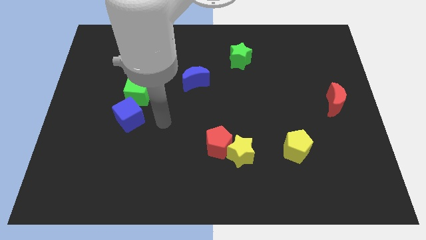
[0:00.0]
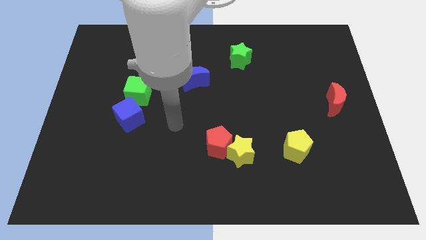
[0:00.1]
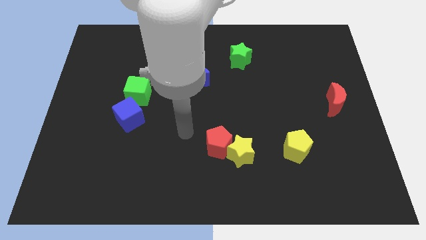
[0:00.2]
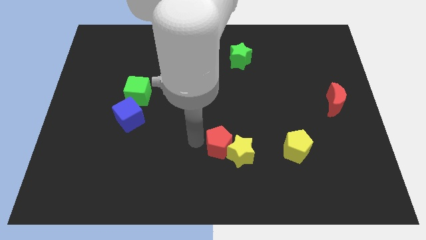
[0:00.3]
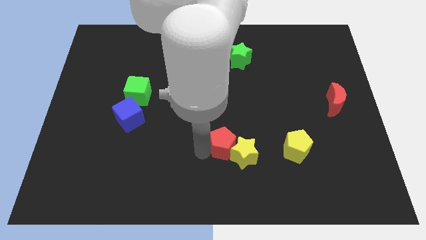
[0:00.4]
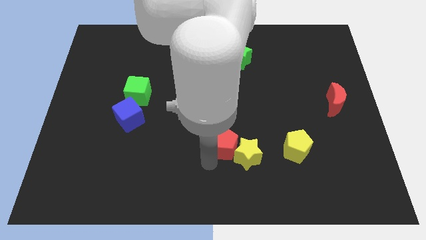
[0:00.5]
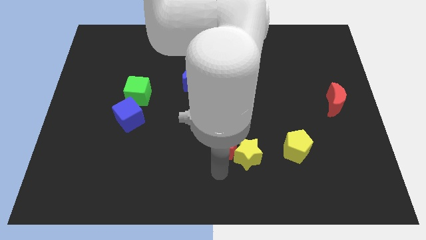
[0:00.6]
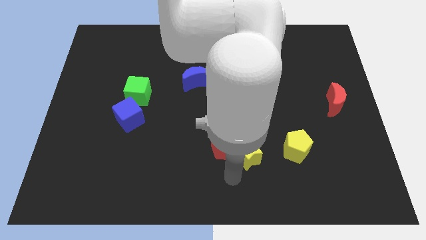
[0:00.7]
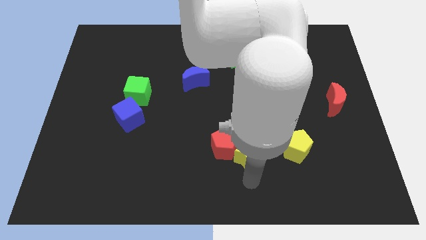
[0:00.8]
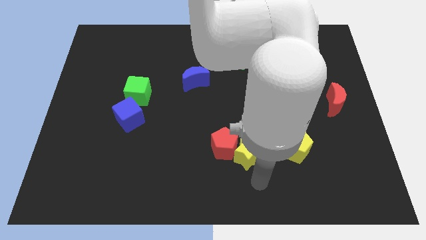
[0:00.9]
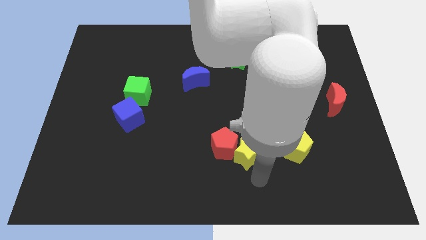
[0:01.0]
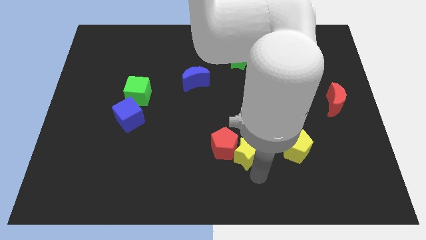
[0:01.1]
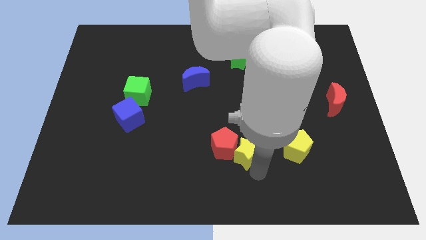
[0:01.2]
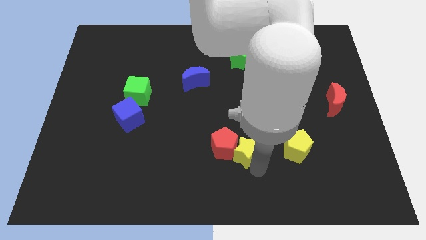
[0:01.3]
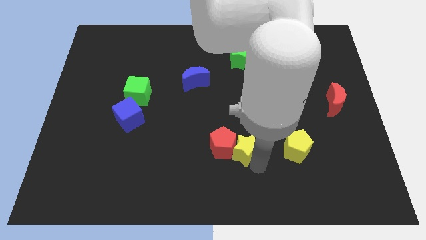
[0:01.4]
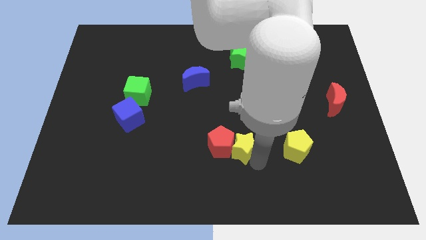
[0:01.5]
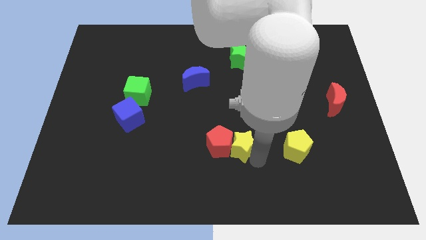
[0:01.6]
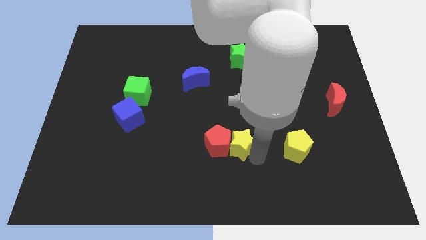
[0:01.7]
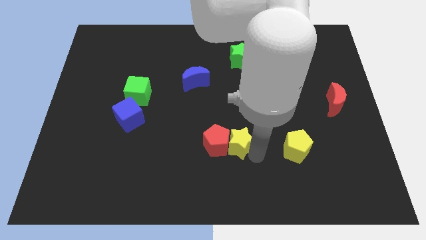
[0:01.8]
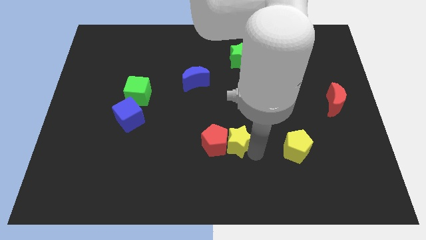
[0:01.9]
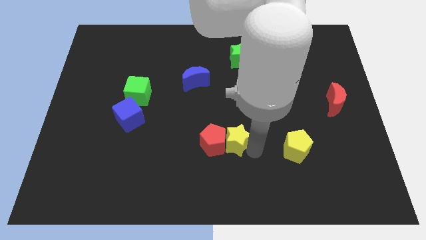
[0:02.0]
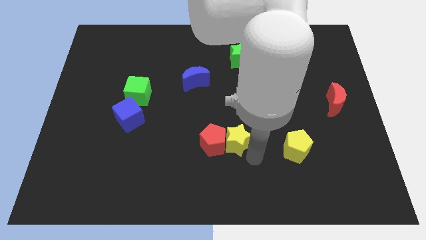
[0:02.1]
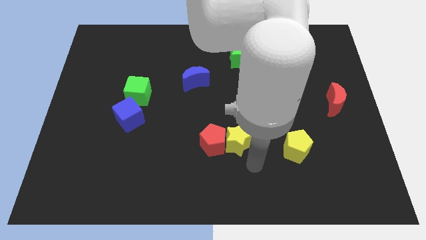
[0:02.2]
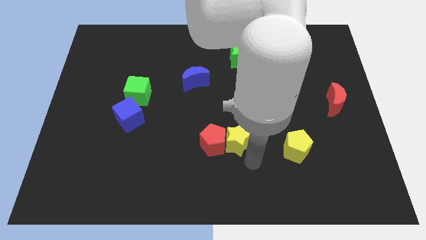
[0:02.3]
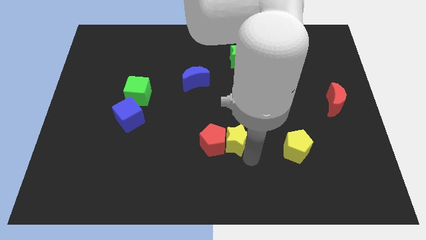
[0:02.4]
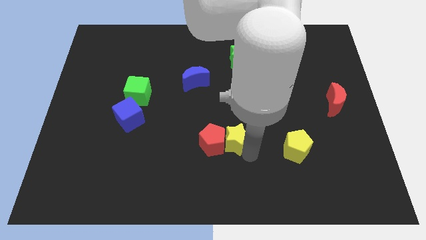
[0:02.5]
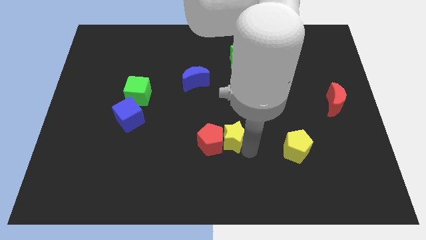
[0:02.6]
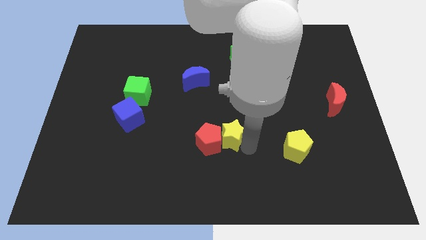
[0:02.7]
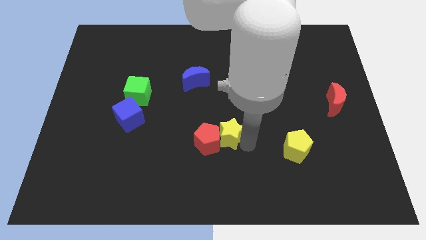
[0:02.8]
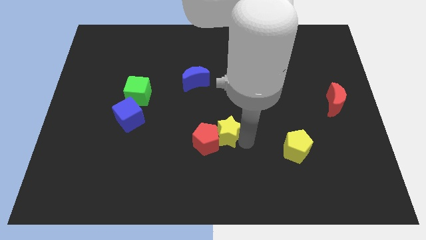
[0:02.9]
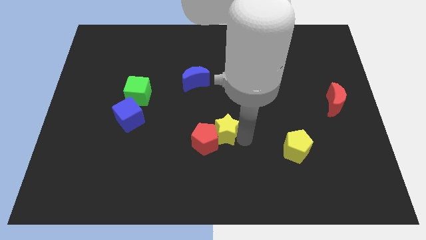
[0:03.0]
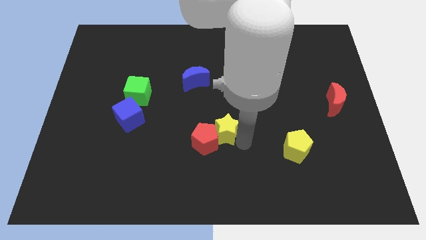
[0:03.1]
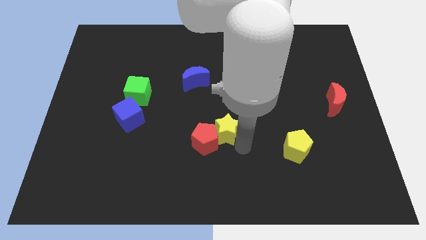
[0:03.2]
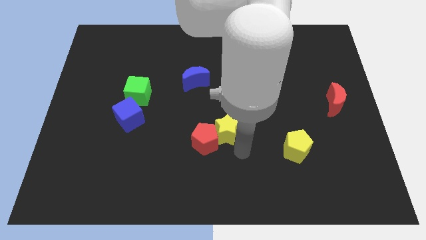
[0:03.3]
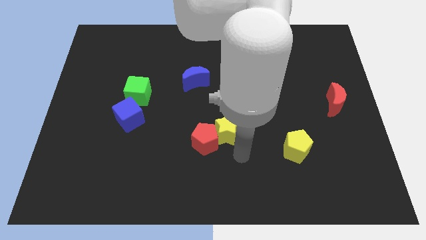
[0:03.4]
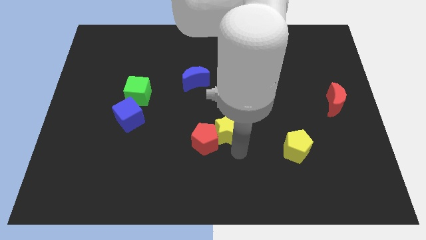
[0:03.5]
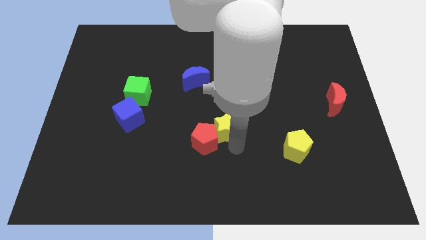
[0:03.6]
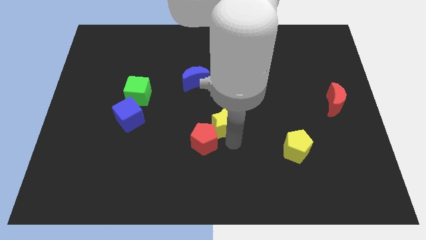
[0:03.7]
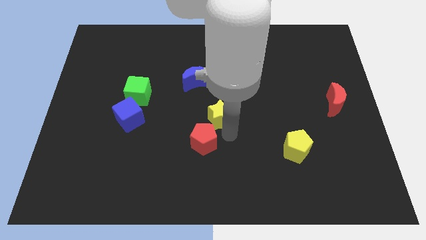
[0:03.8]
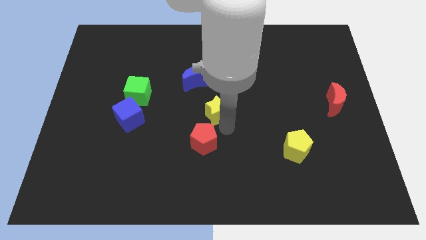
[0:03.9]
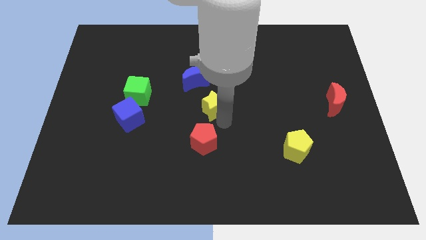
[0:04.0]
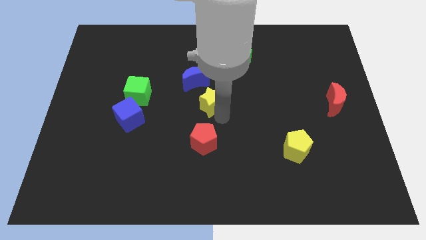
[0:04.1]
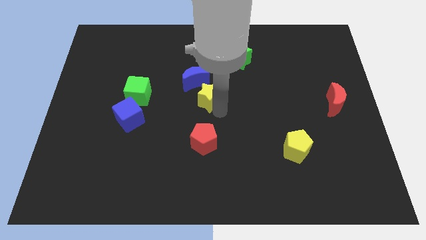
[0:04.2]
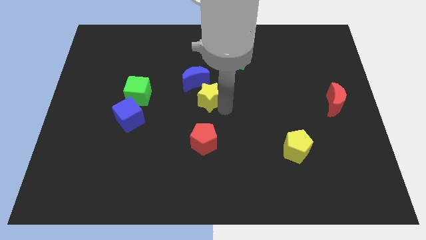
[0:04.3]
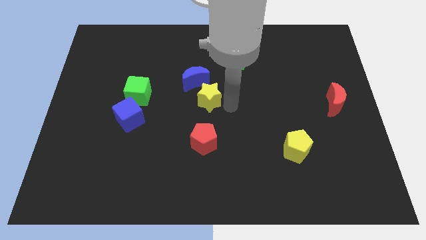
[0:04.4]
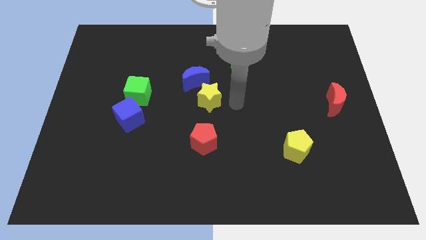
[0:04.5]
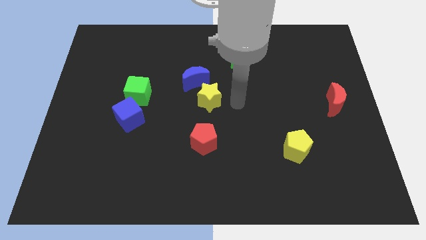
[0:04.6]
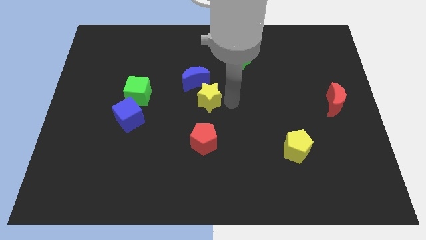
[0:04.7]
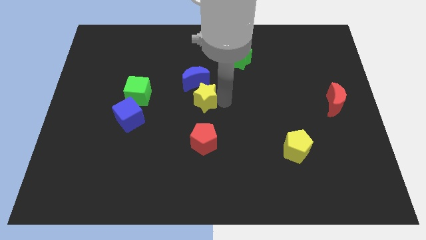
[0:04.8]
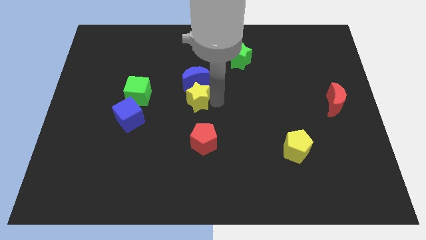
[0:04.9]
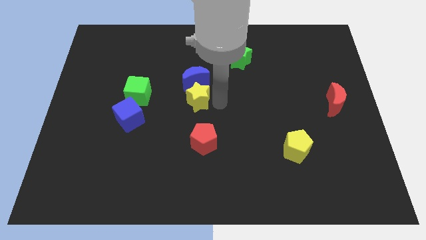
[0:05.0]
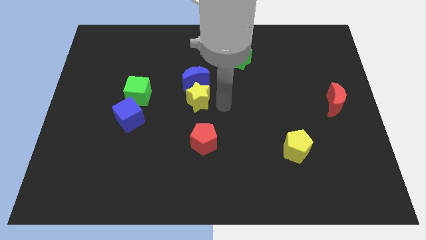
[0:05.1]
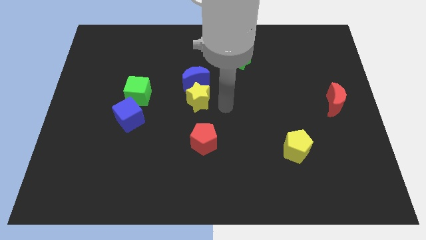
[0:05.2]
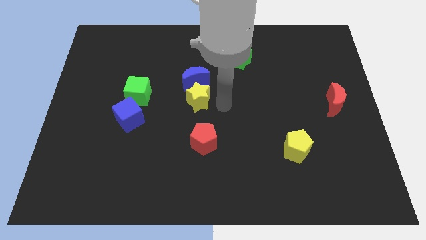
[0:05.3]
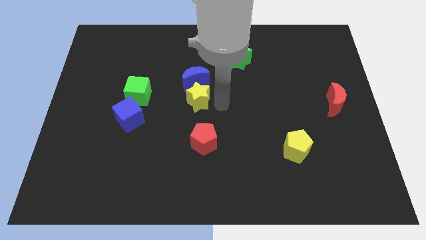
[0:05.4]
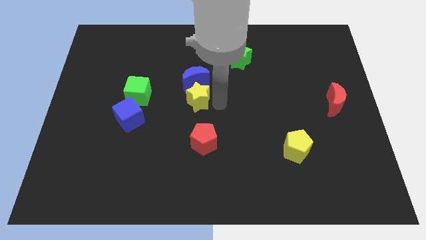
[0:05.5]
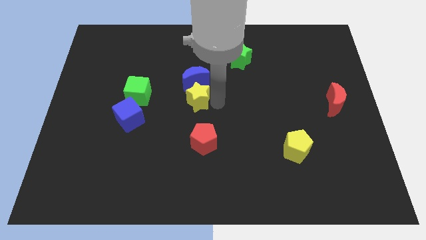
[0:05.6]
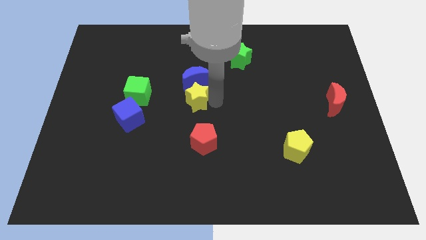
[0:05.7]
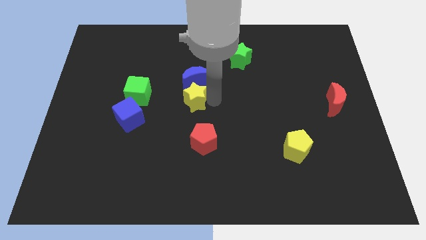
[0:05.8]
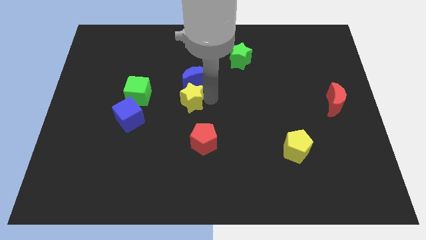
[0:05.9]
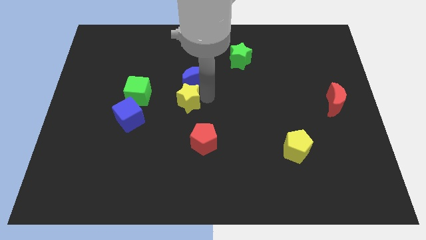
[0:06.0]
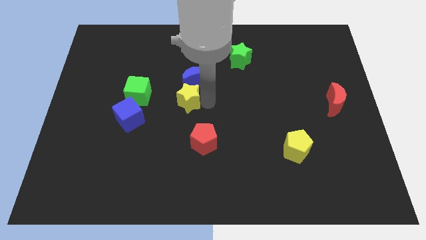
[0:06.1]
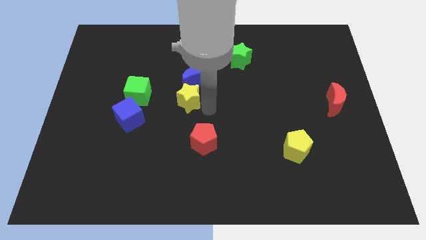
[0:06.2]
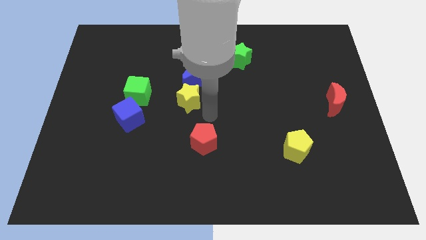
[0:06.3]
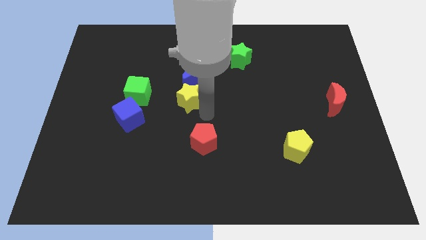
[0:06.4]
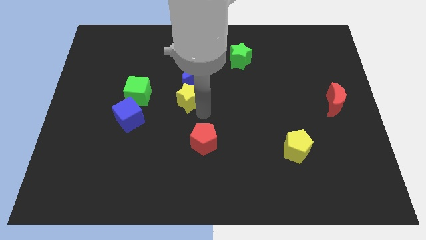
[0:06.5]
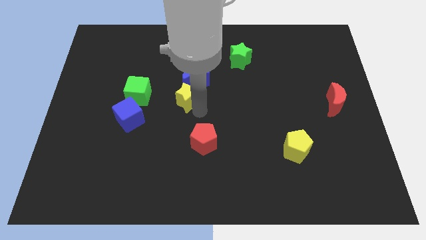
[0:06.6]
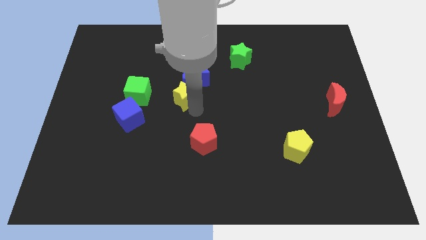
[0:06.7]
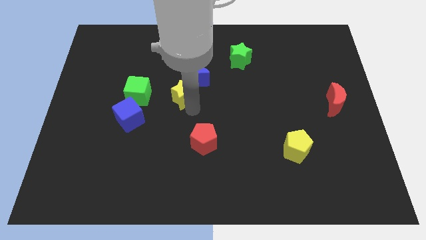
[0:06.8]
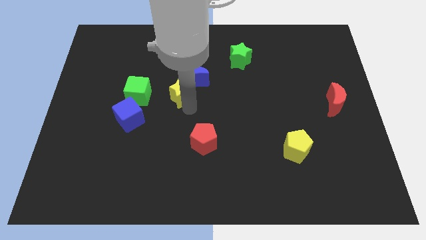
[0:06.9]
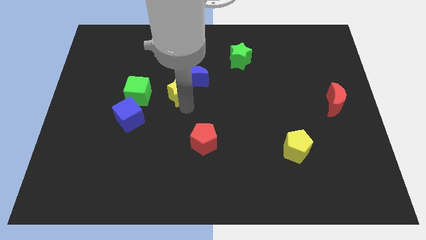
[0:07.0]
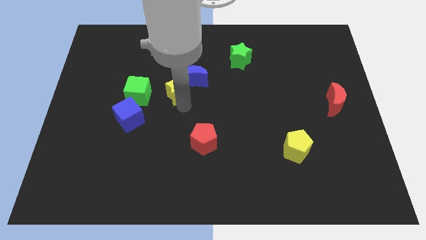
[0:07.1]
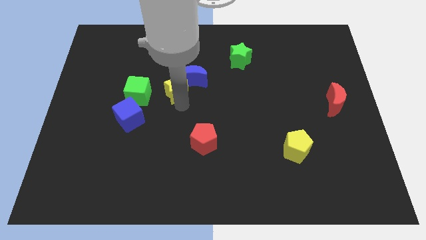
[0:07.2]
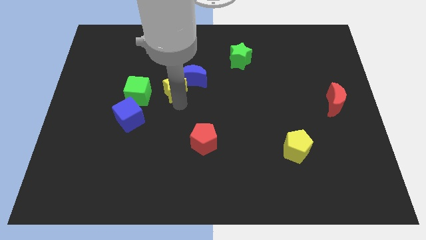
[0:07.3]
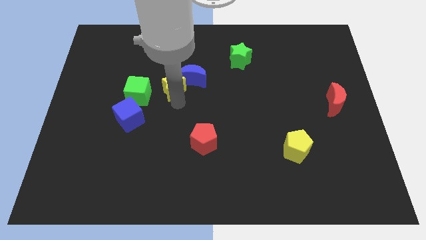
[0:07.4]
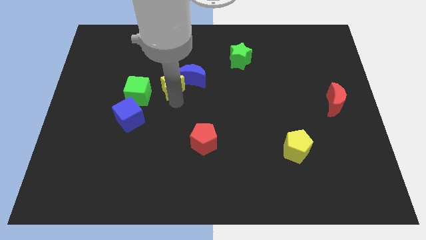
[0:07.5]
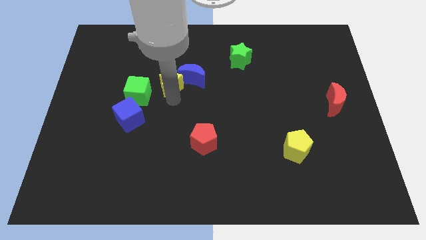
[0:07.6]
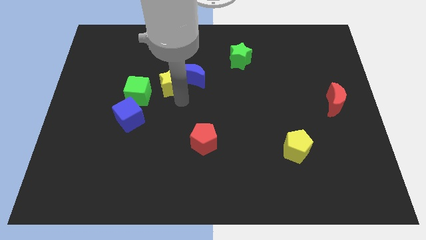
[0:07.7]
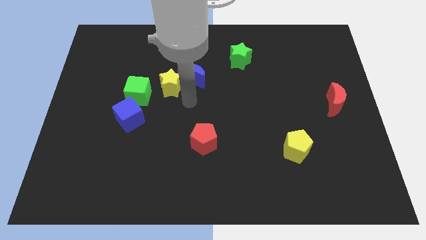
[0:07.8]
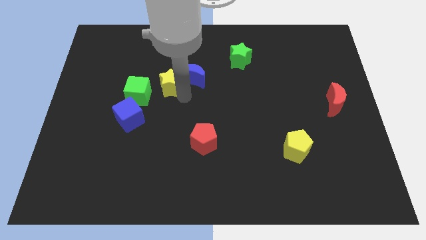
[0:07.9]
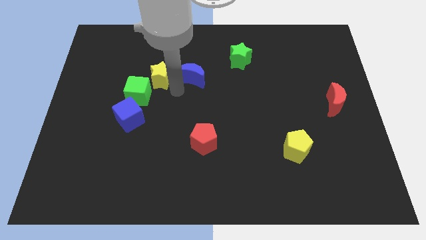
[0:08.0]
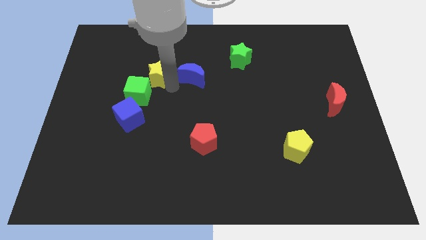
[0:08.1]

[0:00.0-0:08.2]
push the yellow star to the top side of the green cube
